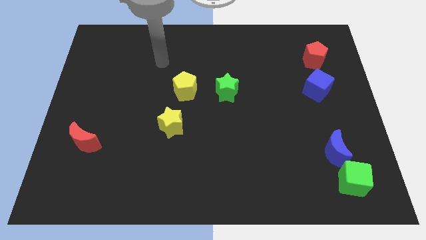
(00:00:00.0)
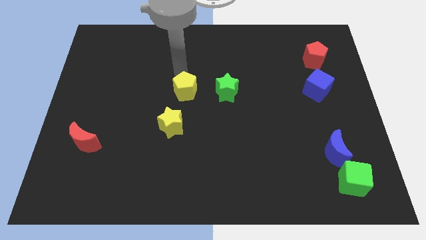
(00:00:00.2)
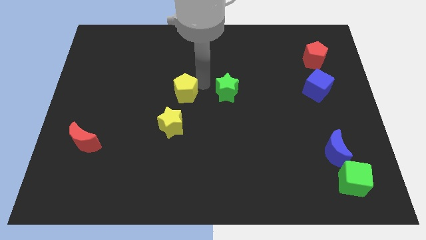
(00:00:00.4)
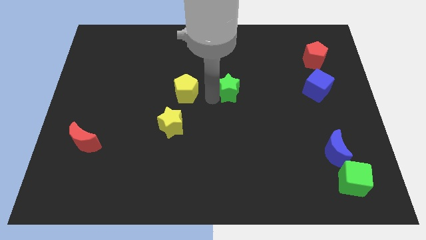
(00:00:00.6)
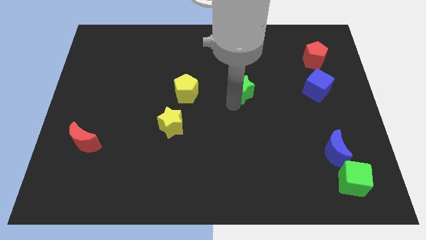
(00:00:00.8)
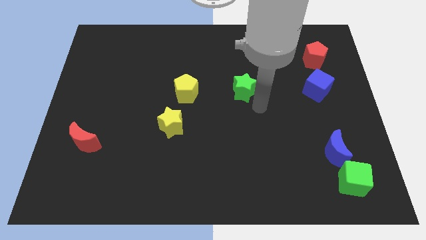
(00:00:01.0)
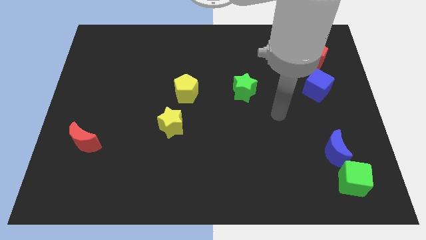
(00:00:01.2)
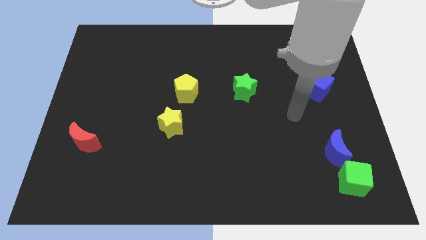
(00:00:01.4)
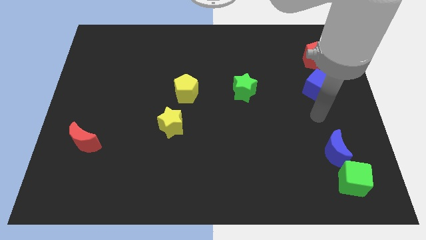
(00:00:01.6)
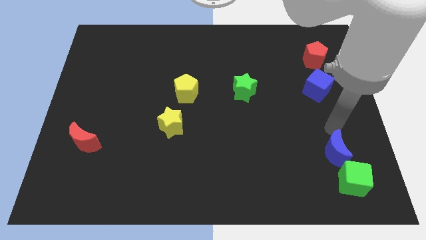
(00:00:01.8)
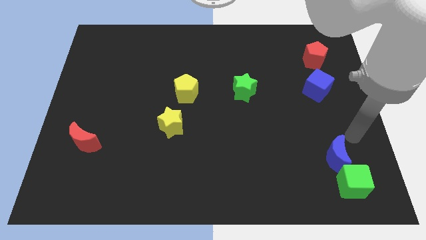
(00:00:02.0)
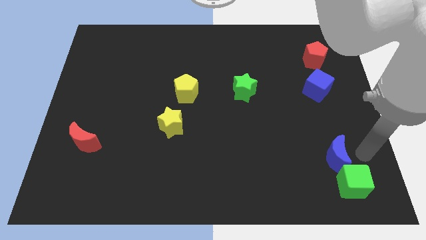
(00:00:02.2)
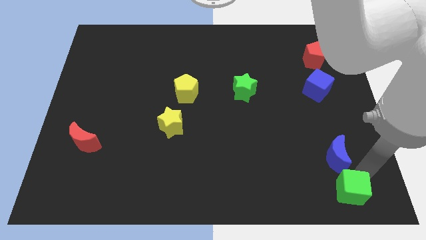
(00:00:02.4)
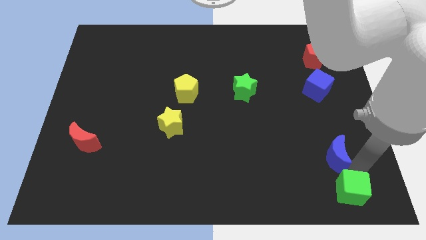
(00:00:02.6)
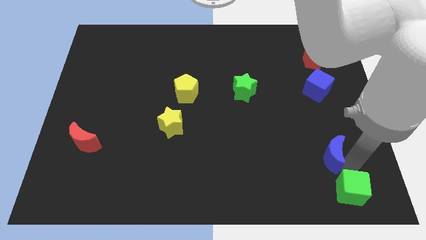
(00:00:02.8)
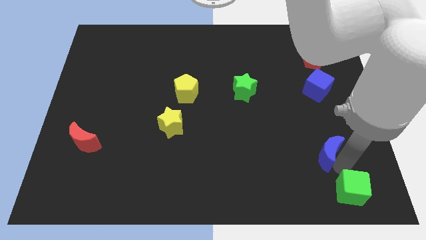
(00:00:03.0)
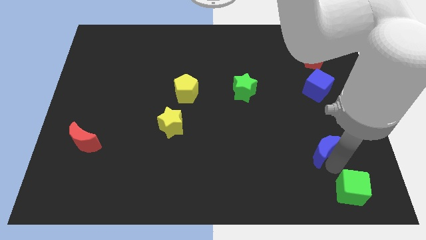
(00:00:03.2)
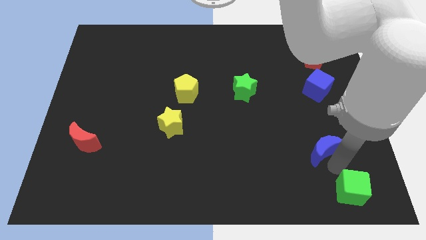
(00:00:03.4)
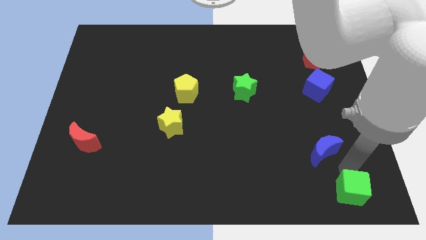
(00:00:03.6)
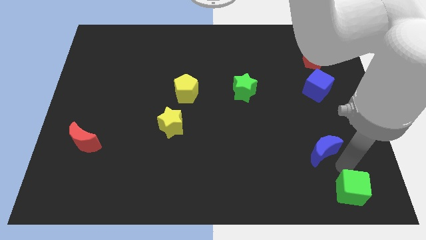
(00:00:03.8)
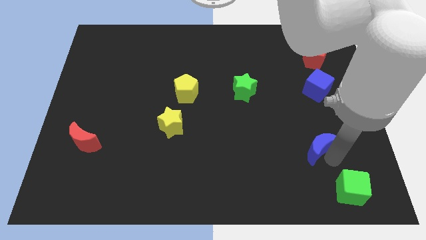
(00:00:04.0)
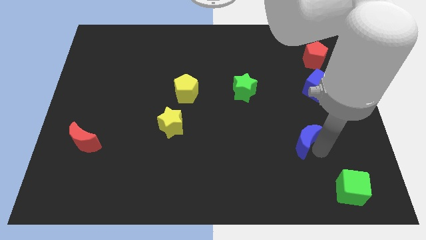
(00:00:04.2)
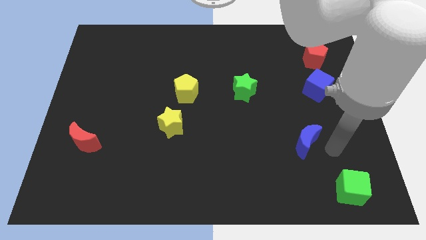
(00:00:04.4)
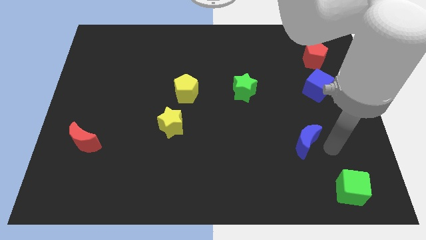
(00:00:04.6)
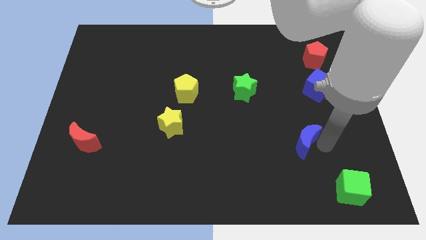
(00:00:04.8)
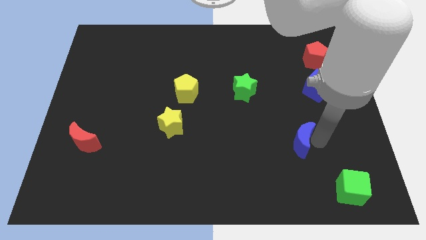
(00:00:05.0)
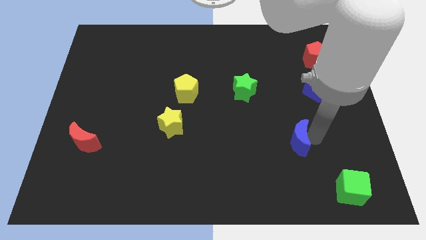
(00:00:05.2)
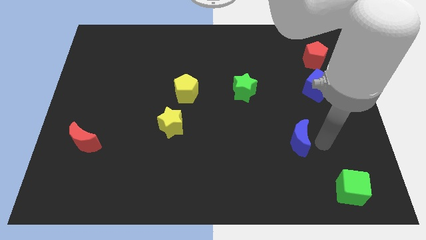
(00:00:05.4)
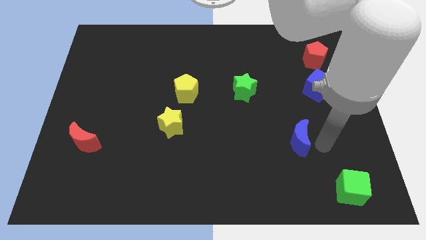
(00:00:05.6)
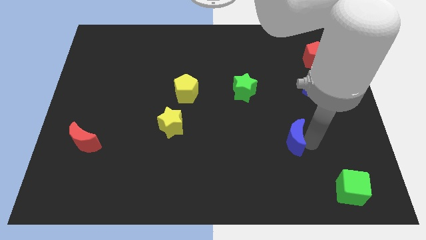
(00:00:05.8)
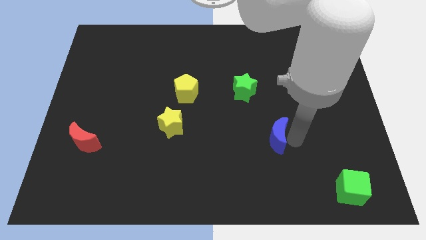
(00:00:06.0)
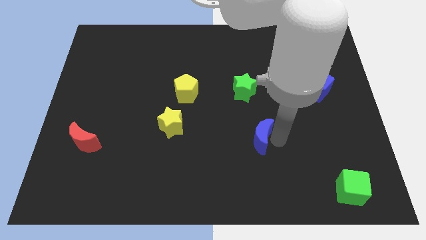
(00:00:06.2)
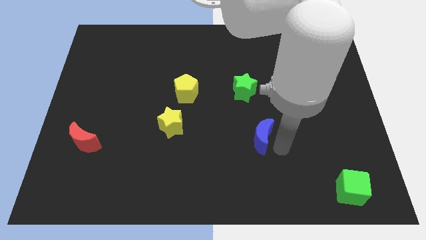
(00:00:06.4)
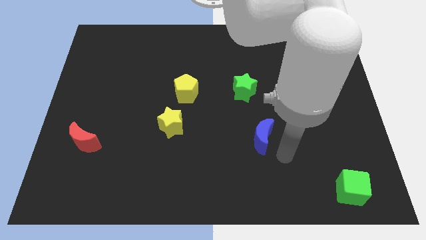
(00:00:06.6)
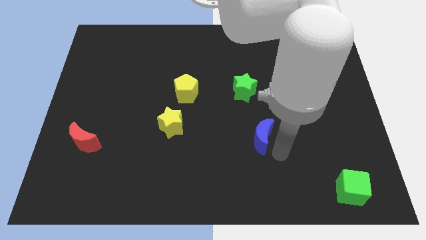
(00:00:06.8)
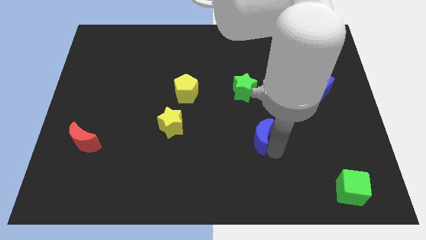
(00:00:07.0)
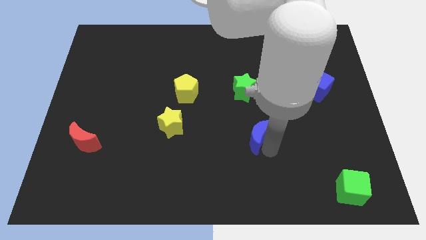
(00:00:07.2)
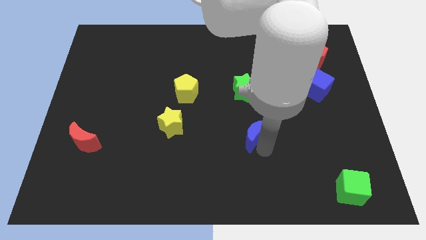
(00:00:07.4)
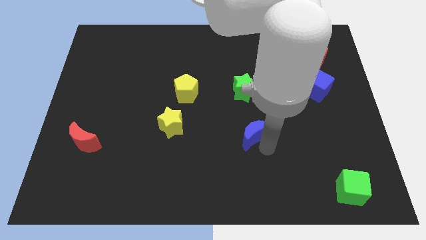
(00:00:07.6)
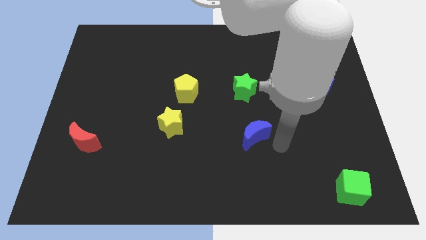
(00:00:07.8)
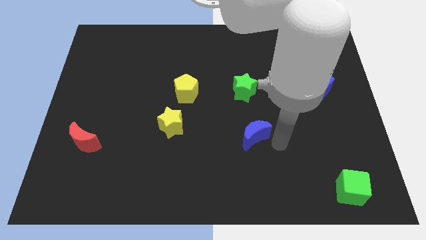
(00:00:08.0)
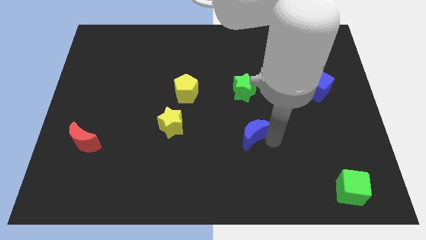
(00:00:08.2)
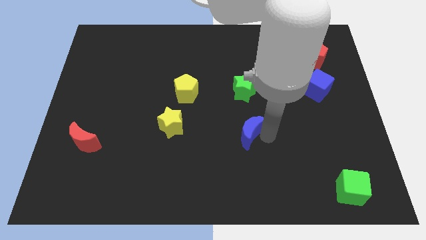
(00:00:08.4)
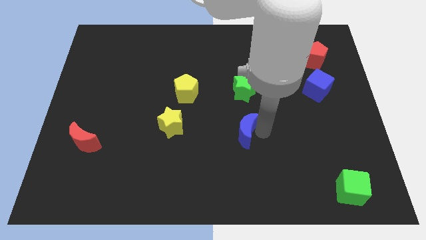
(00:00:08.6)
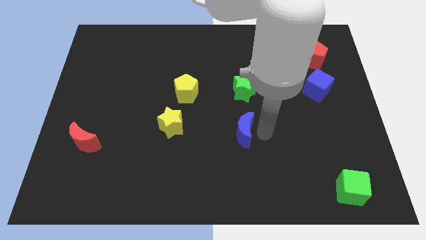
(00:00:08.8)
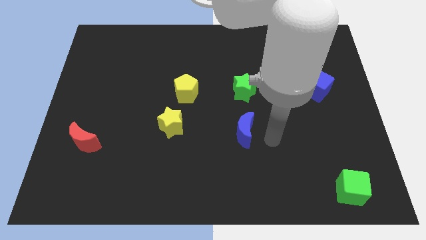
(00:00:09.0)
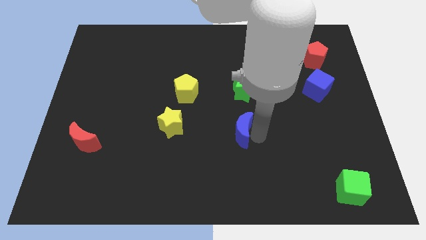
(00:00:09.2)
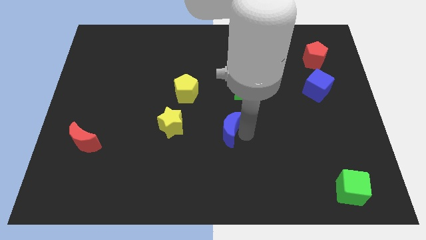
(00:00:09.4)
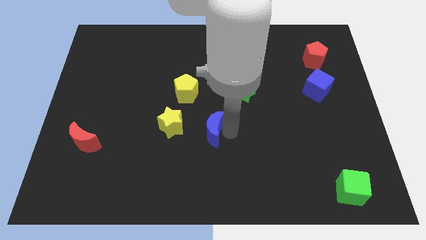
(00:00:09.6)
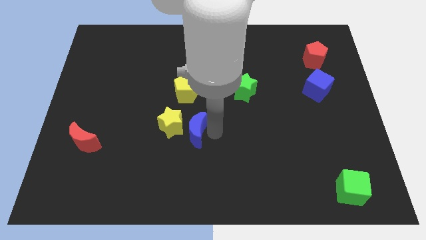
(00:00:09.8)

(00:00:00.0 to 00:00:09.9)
push the blue moon towards the yellow star

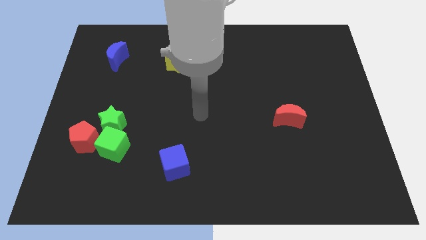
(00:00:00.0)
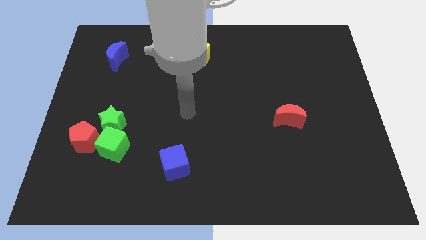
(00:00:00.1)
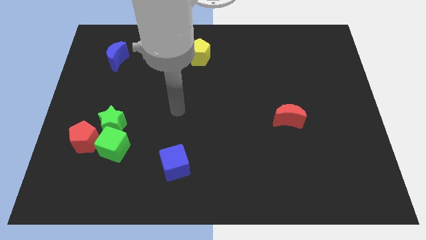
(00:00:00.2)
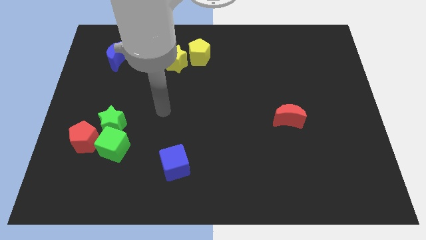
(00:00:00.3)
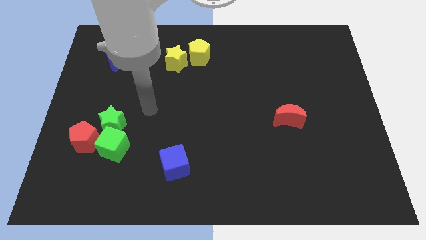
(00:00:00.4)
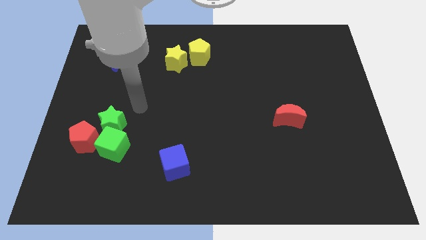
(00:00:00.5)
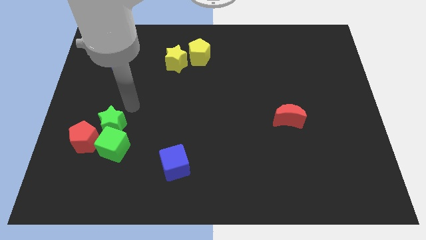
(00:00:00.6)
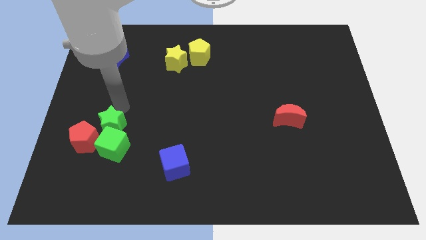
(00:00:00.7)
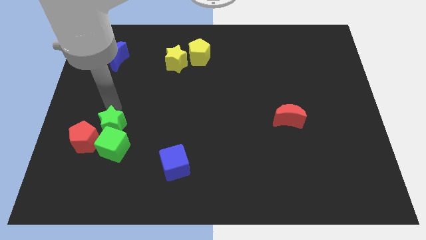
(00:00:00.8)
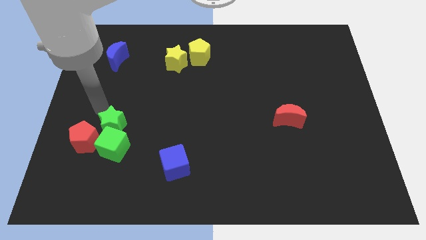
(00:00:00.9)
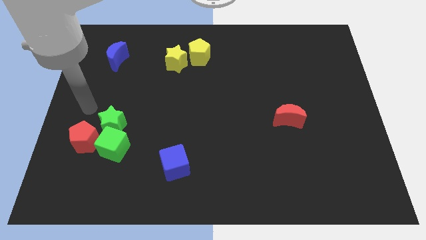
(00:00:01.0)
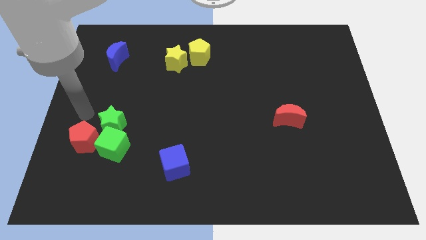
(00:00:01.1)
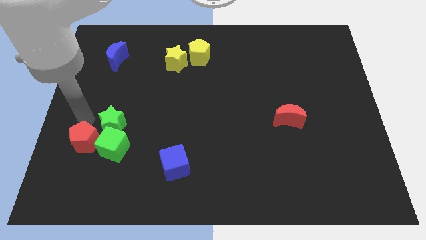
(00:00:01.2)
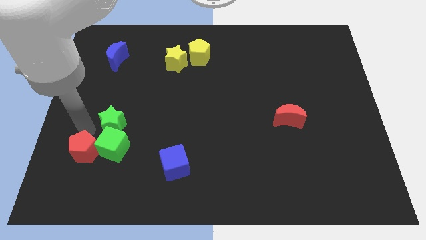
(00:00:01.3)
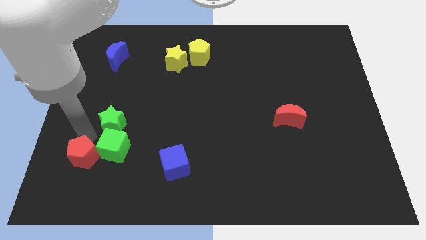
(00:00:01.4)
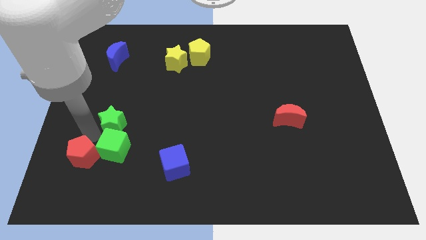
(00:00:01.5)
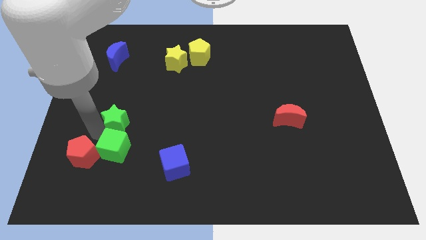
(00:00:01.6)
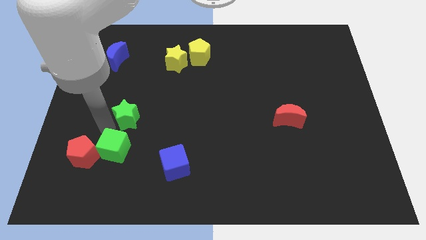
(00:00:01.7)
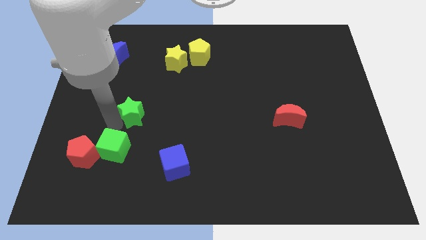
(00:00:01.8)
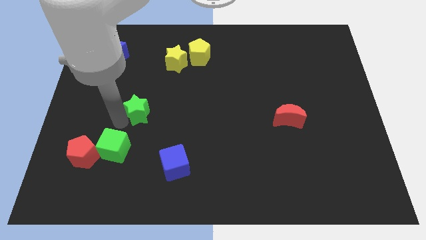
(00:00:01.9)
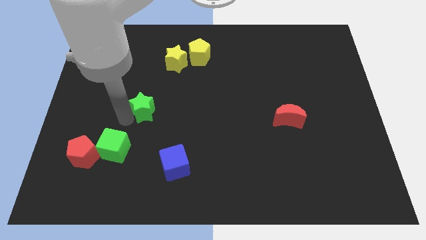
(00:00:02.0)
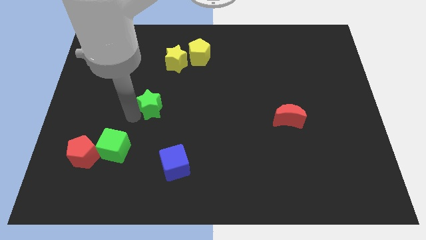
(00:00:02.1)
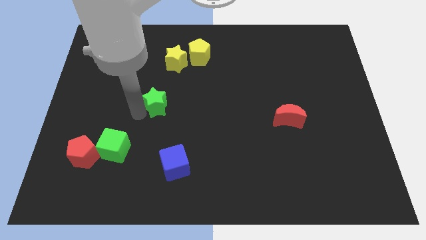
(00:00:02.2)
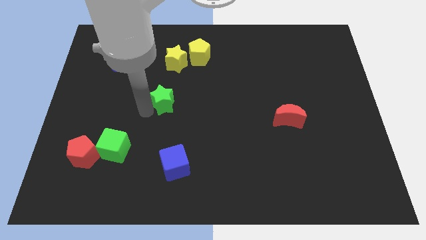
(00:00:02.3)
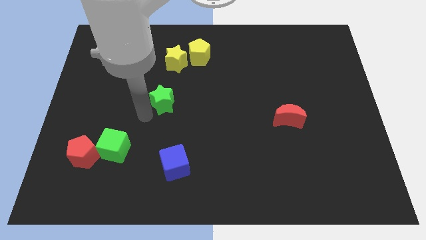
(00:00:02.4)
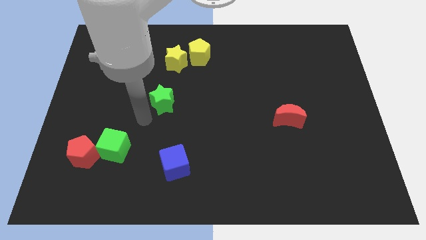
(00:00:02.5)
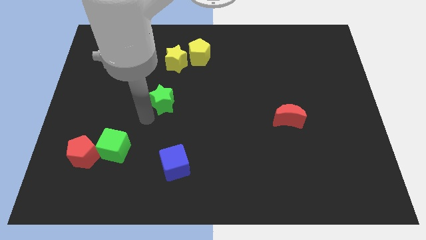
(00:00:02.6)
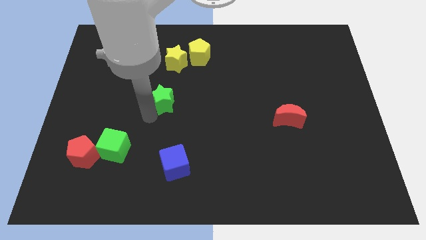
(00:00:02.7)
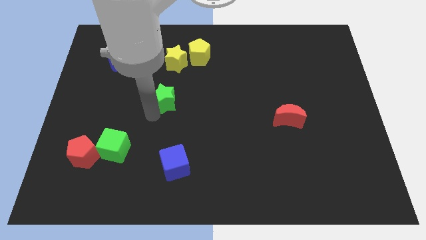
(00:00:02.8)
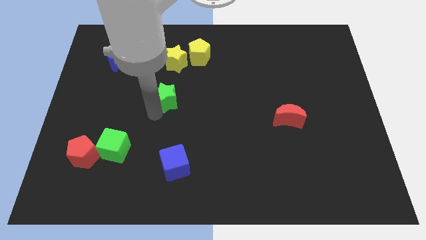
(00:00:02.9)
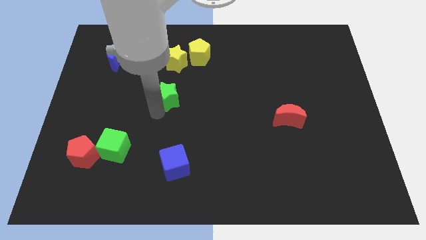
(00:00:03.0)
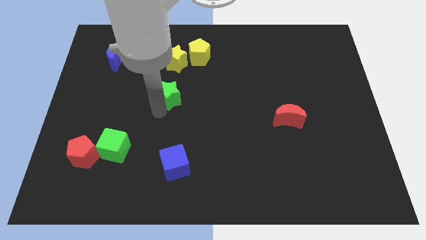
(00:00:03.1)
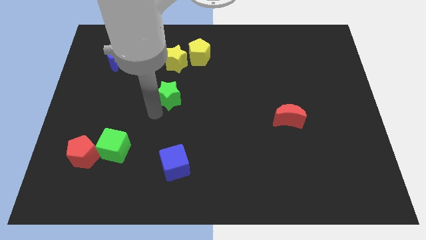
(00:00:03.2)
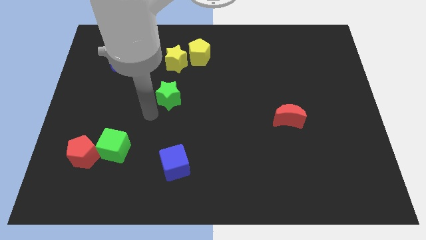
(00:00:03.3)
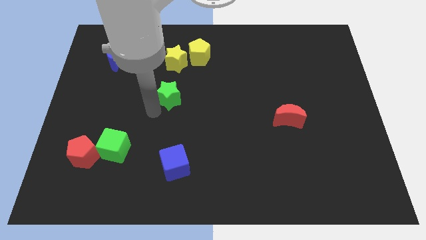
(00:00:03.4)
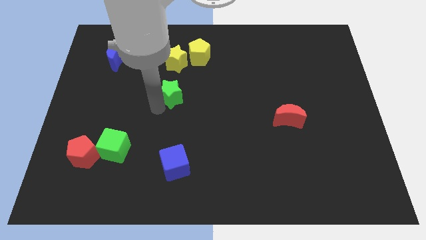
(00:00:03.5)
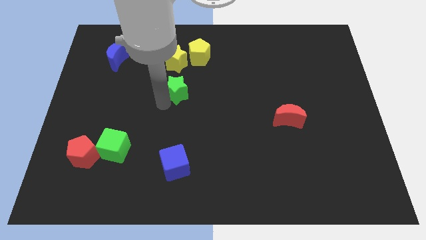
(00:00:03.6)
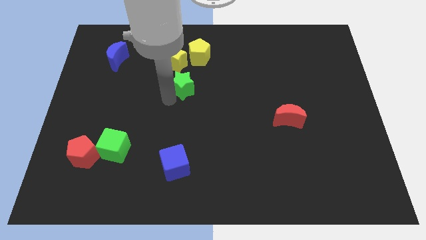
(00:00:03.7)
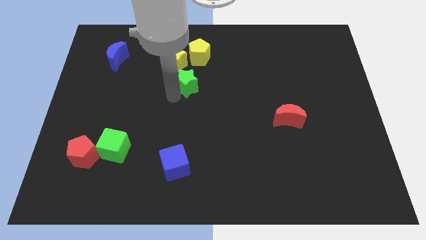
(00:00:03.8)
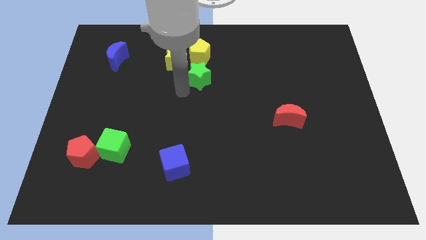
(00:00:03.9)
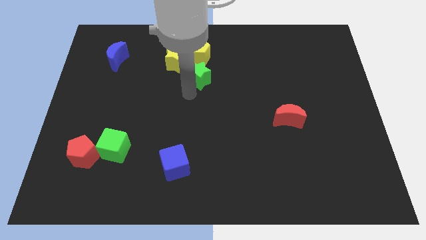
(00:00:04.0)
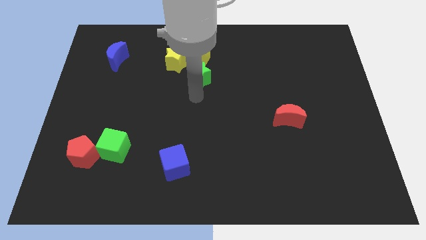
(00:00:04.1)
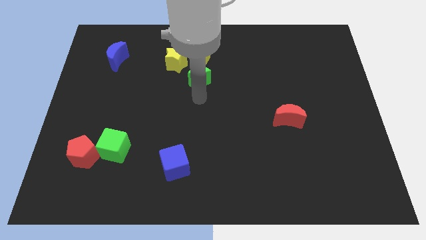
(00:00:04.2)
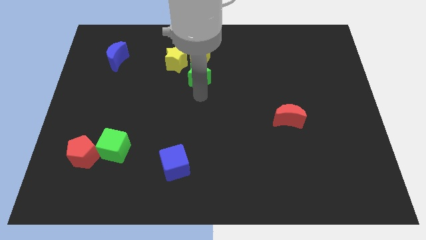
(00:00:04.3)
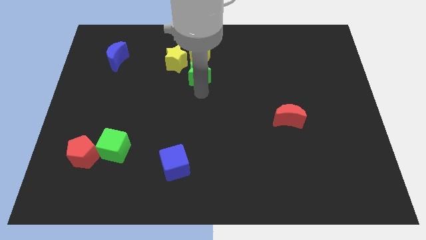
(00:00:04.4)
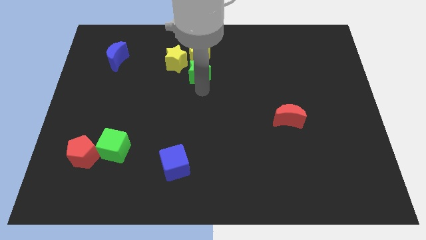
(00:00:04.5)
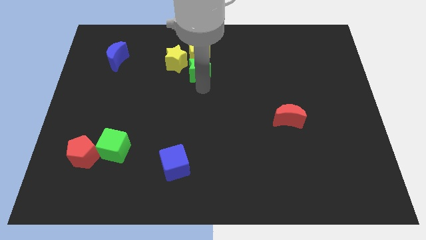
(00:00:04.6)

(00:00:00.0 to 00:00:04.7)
move the green star next to the yellow pentagon
